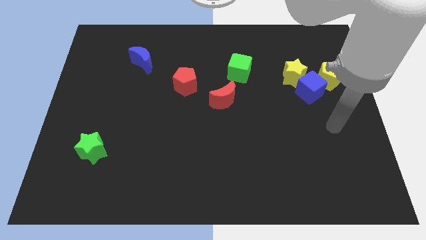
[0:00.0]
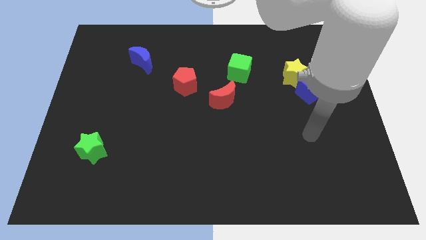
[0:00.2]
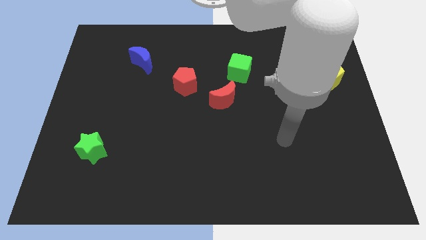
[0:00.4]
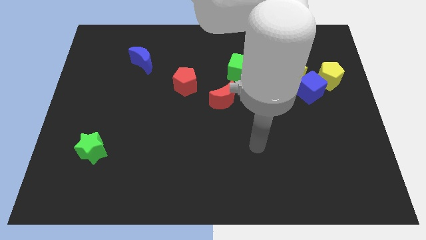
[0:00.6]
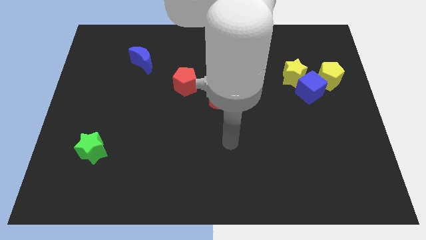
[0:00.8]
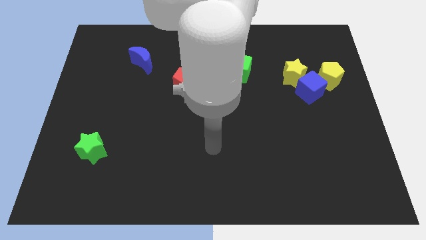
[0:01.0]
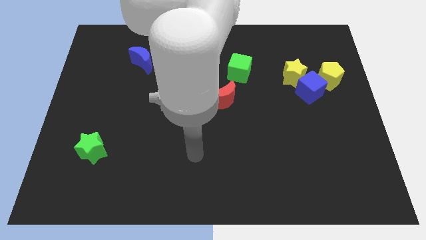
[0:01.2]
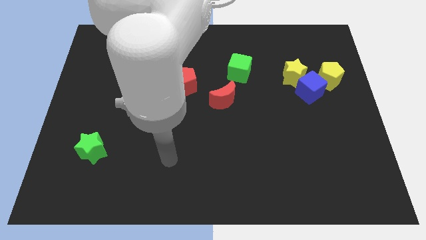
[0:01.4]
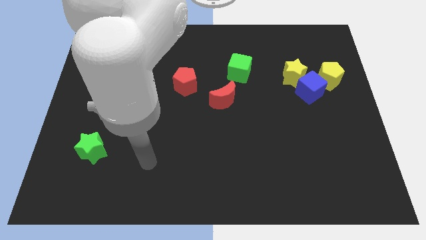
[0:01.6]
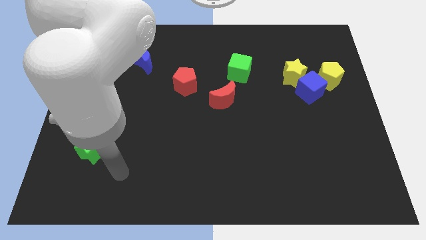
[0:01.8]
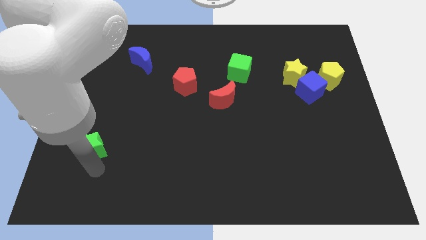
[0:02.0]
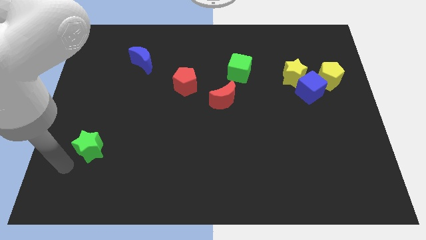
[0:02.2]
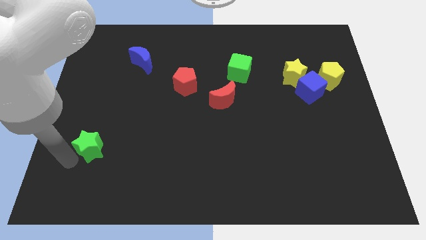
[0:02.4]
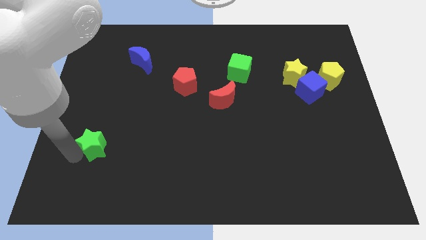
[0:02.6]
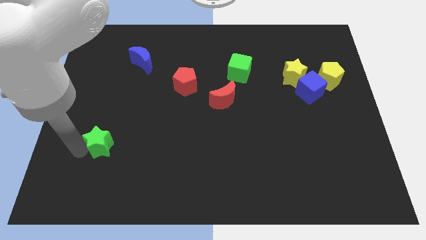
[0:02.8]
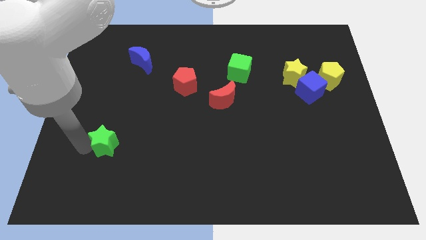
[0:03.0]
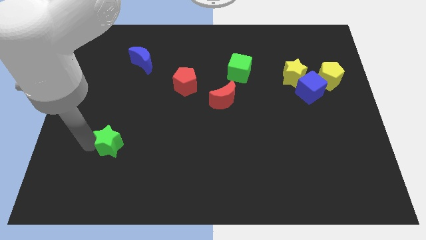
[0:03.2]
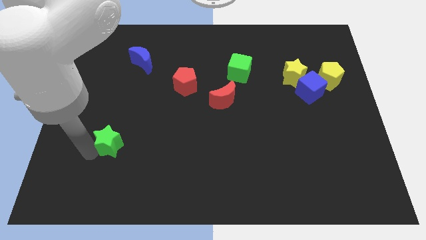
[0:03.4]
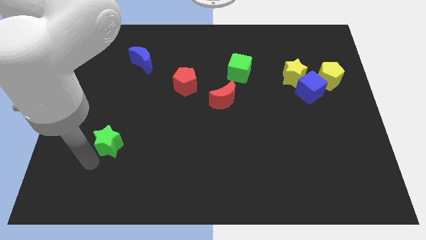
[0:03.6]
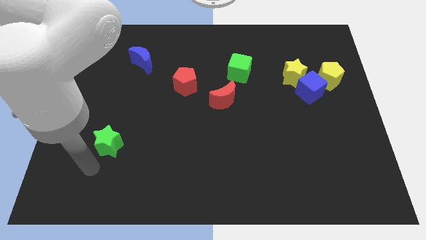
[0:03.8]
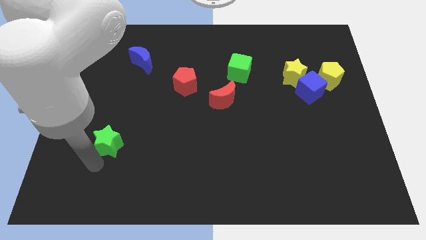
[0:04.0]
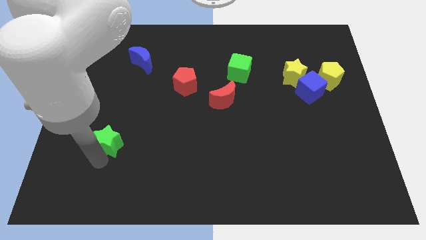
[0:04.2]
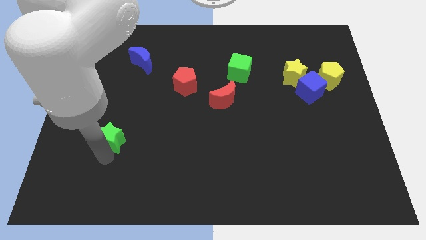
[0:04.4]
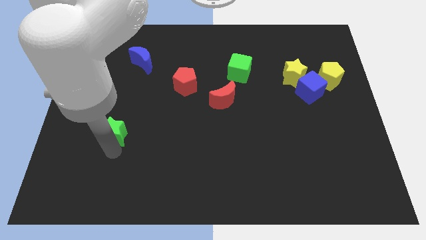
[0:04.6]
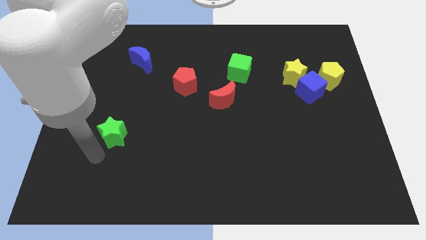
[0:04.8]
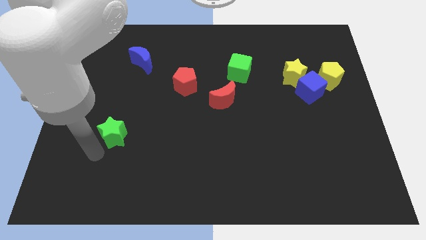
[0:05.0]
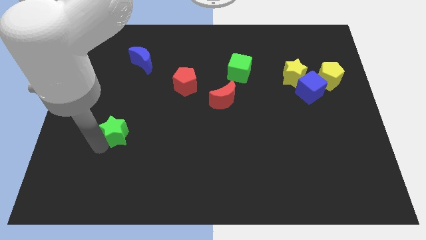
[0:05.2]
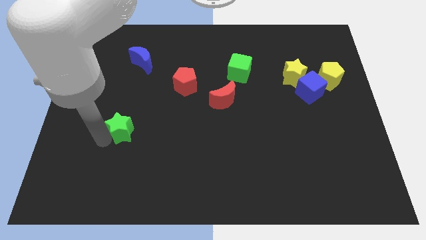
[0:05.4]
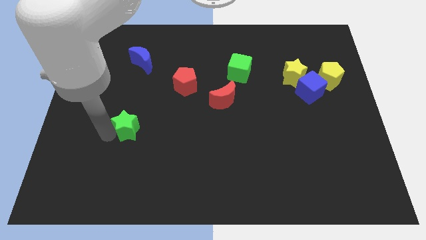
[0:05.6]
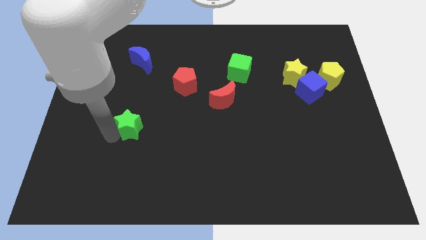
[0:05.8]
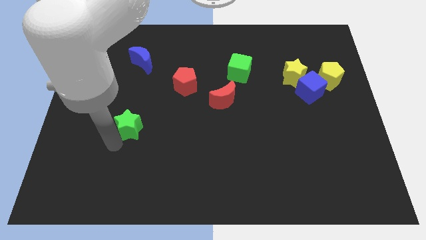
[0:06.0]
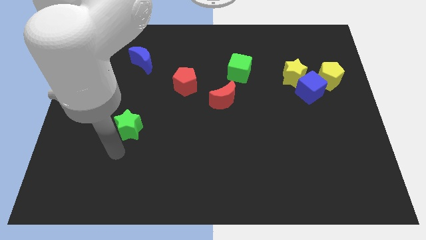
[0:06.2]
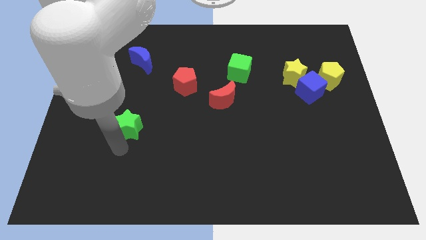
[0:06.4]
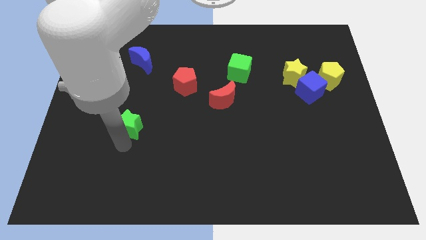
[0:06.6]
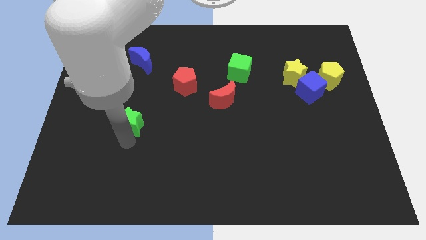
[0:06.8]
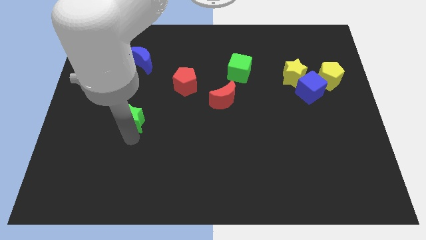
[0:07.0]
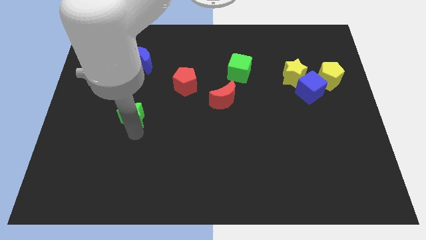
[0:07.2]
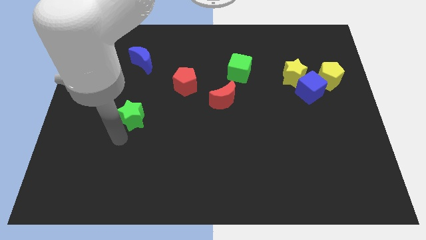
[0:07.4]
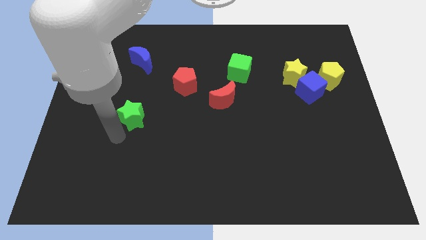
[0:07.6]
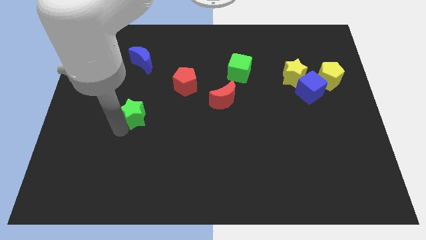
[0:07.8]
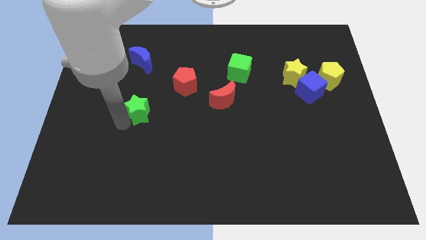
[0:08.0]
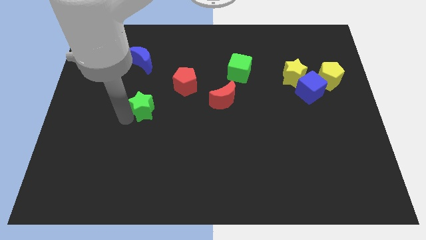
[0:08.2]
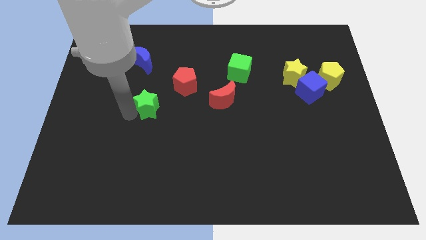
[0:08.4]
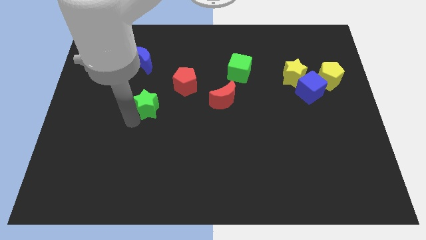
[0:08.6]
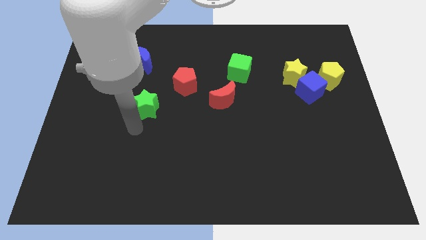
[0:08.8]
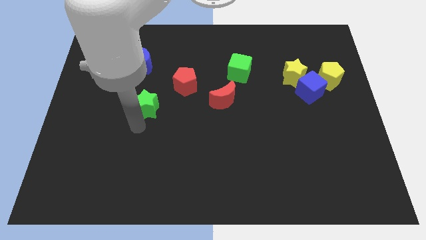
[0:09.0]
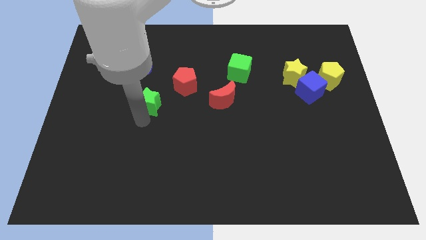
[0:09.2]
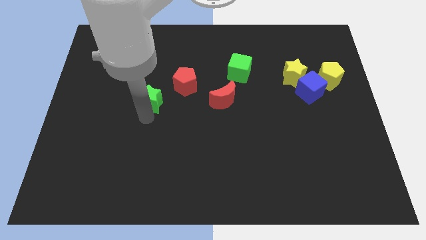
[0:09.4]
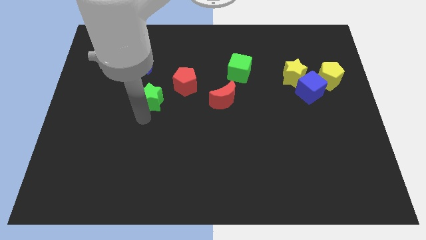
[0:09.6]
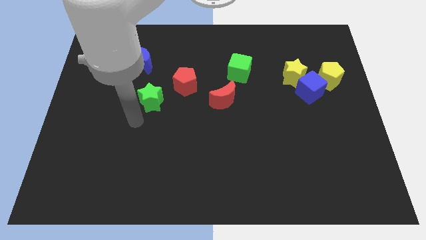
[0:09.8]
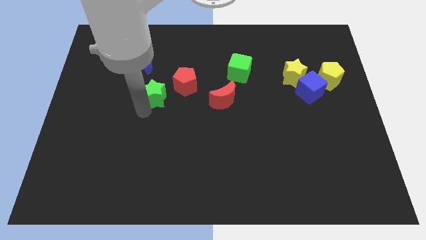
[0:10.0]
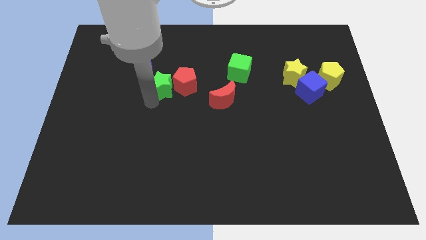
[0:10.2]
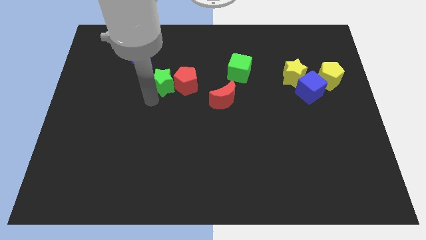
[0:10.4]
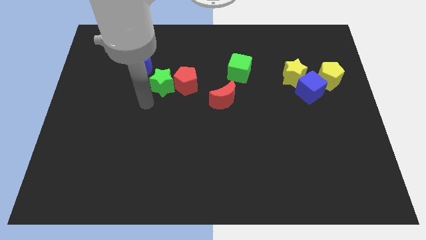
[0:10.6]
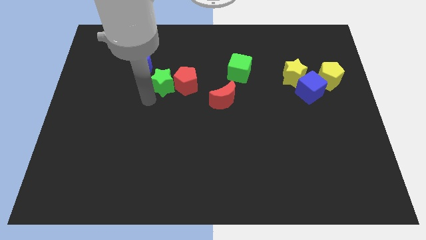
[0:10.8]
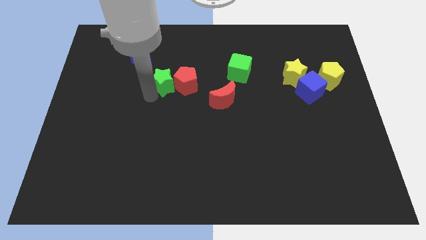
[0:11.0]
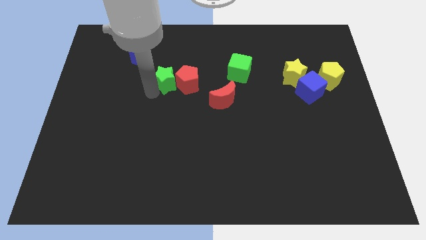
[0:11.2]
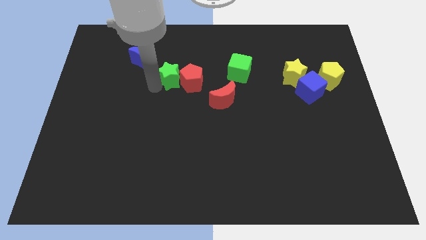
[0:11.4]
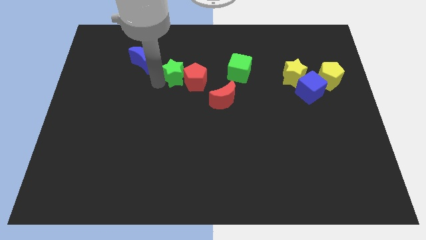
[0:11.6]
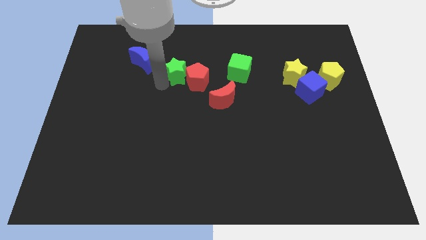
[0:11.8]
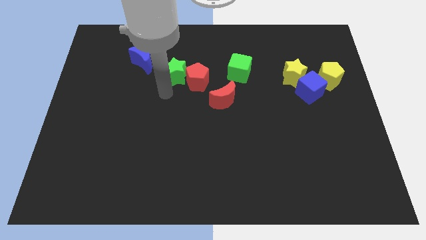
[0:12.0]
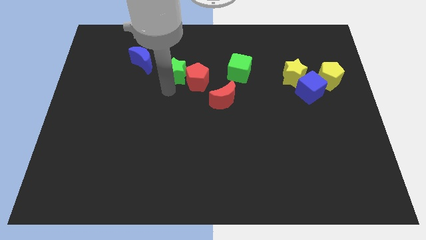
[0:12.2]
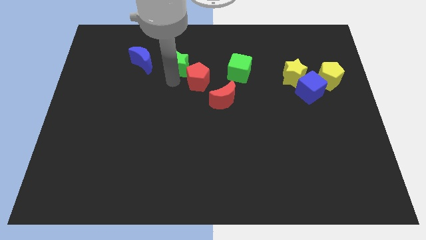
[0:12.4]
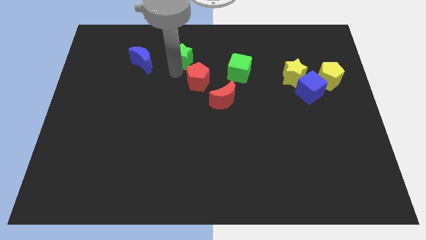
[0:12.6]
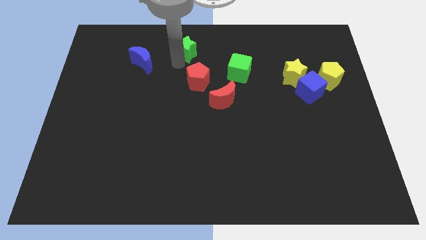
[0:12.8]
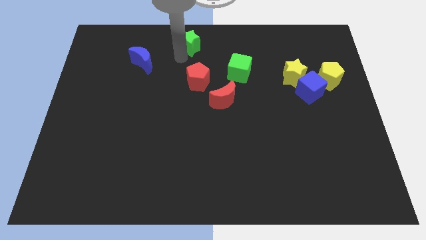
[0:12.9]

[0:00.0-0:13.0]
put the green star to the towards your base

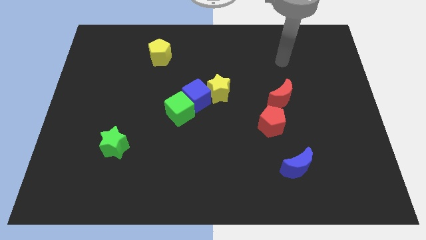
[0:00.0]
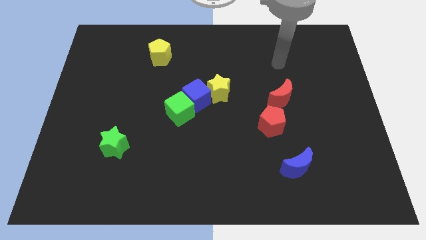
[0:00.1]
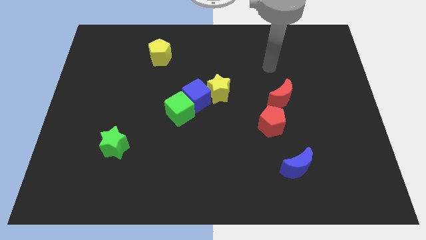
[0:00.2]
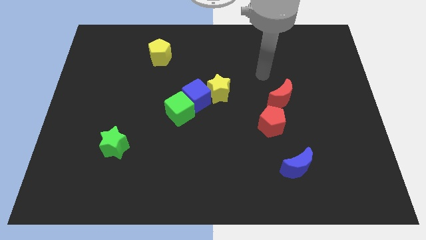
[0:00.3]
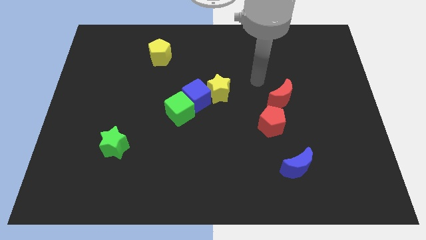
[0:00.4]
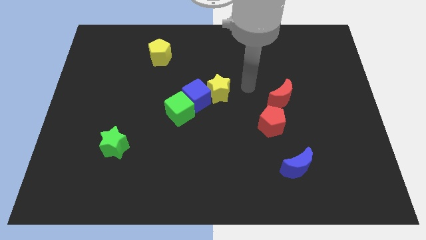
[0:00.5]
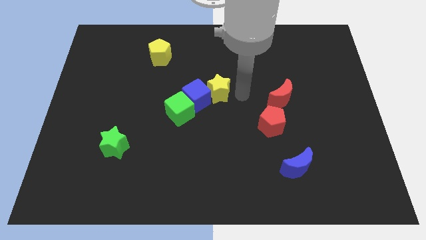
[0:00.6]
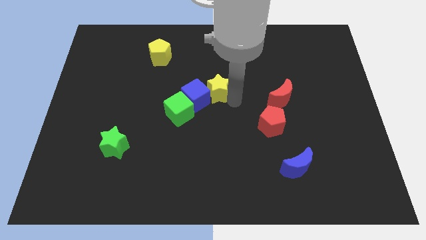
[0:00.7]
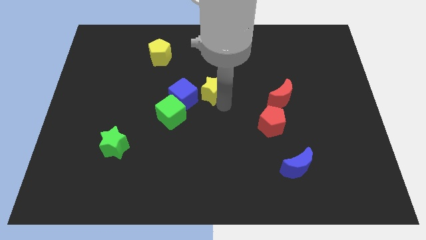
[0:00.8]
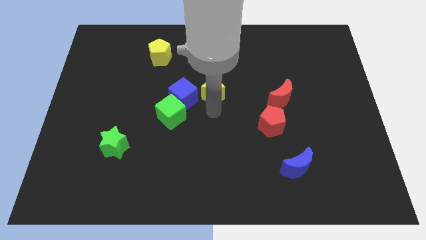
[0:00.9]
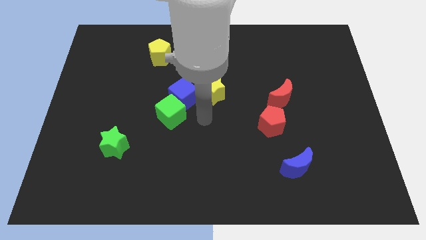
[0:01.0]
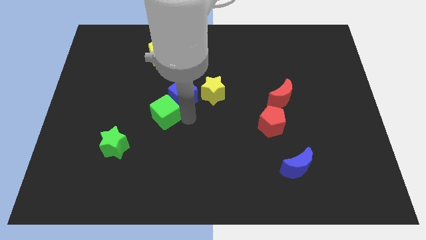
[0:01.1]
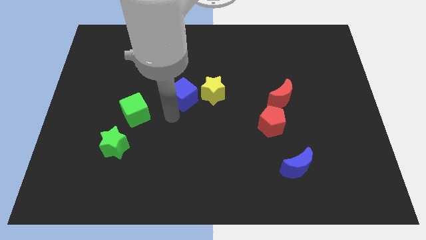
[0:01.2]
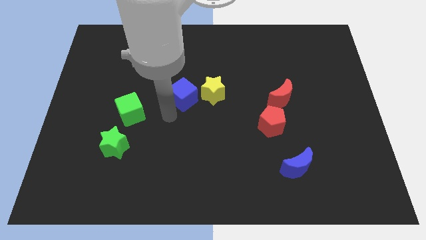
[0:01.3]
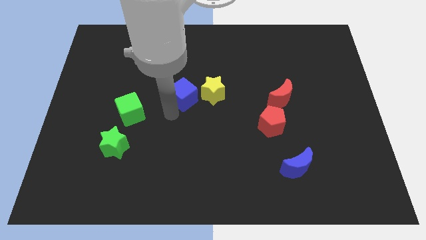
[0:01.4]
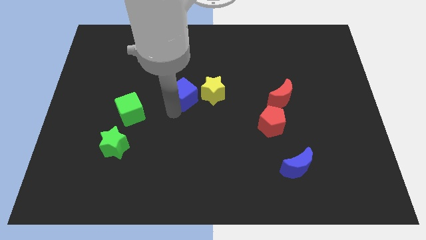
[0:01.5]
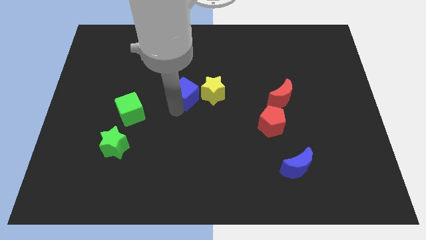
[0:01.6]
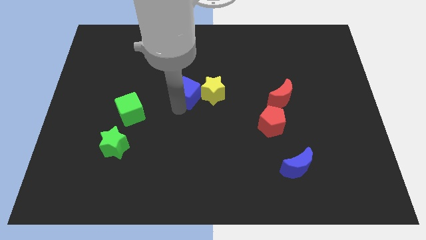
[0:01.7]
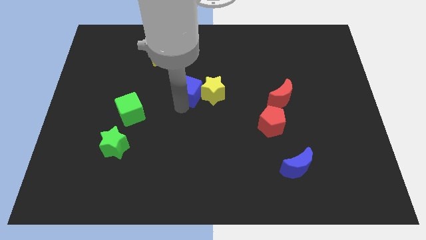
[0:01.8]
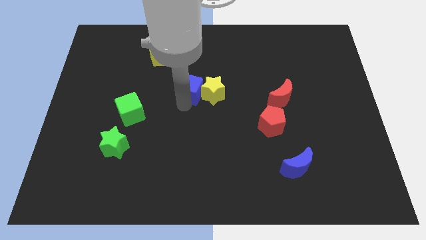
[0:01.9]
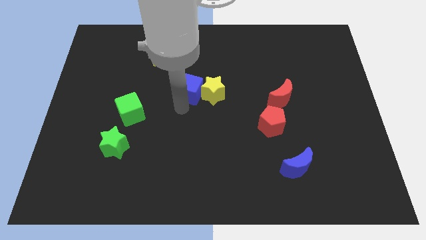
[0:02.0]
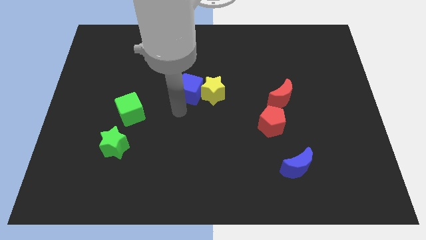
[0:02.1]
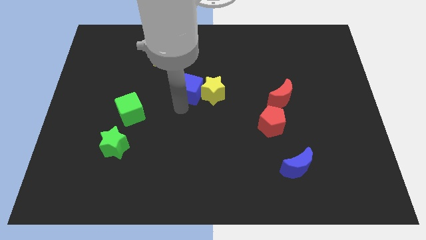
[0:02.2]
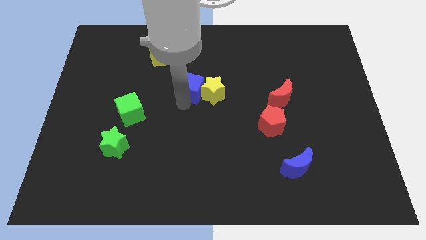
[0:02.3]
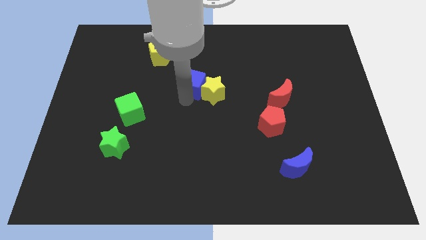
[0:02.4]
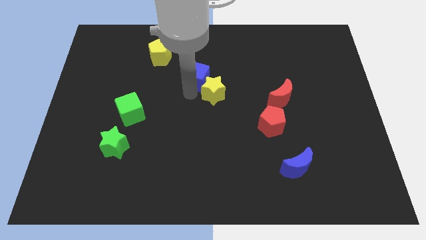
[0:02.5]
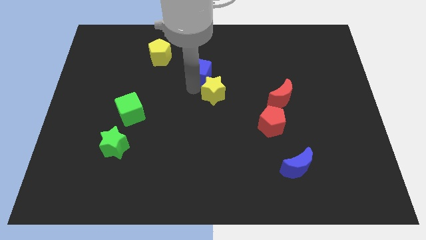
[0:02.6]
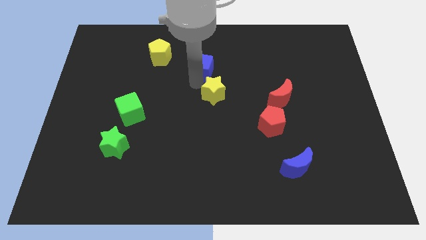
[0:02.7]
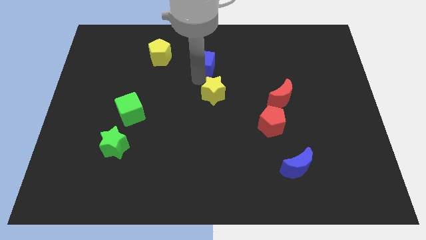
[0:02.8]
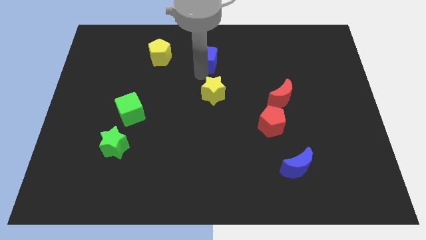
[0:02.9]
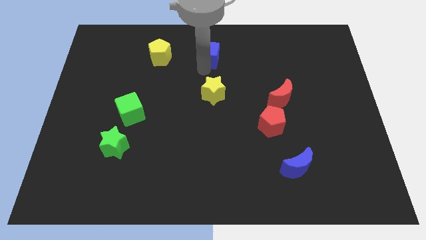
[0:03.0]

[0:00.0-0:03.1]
push the blue cube to the top
